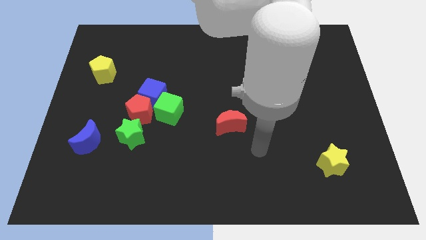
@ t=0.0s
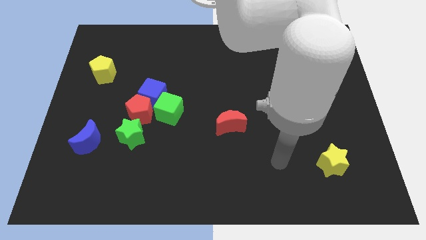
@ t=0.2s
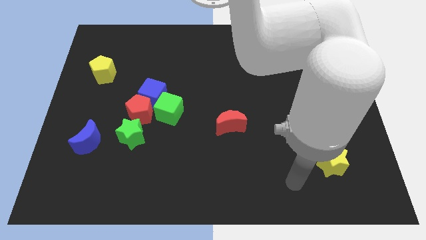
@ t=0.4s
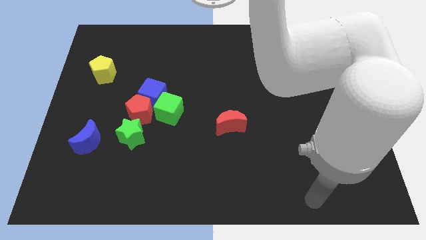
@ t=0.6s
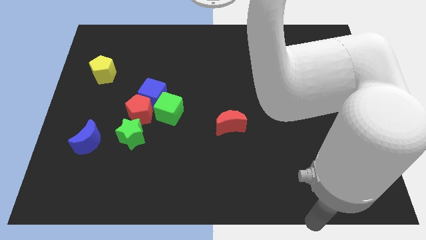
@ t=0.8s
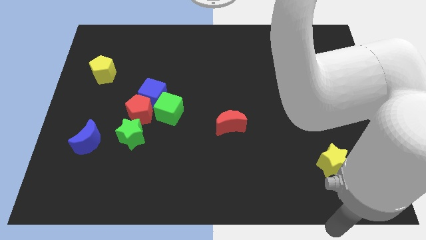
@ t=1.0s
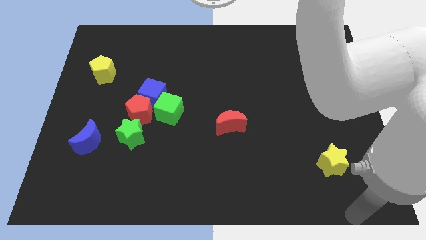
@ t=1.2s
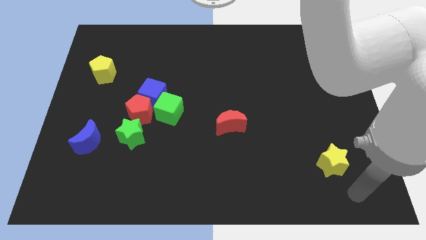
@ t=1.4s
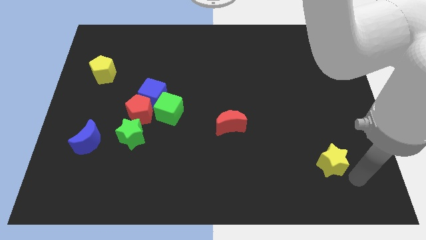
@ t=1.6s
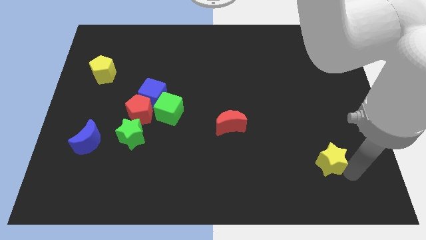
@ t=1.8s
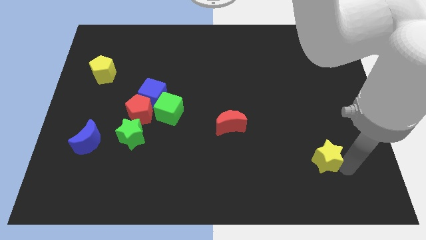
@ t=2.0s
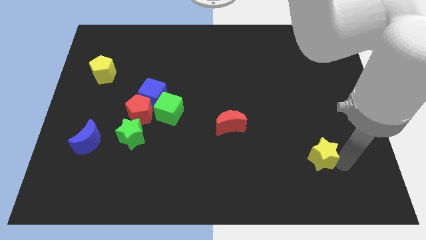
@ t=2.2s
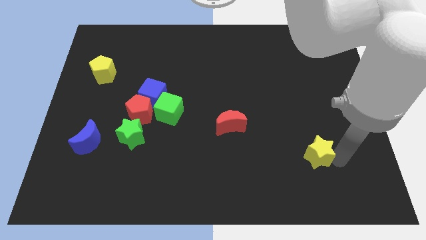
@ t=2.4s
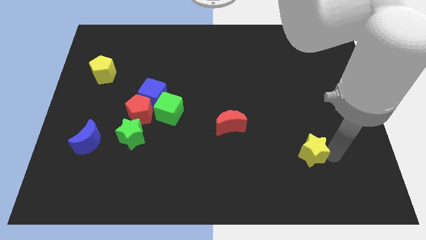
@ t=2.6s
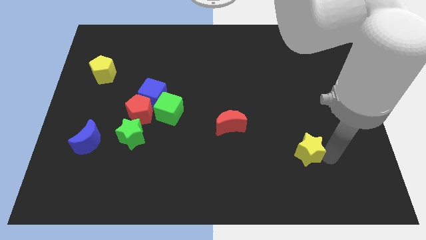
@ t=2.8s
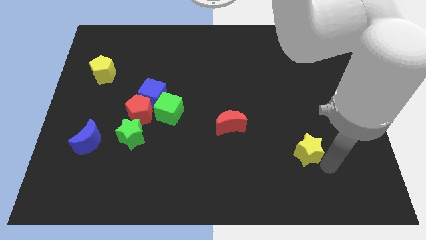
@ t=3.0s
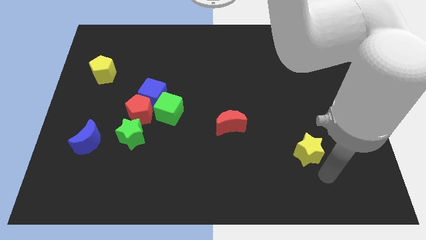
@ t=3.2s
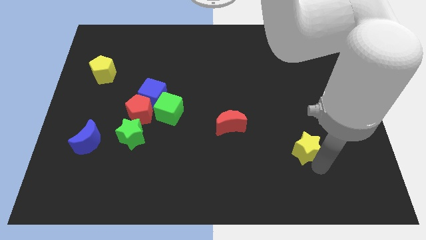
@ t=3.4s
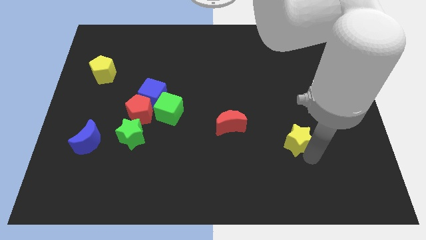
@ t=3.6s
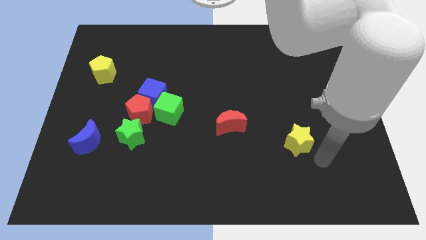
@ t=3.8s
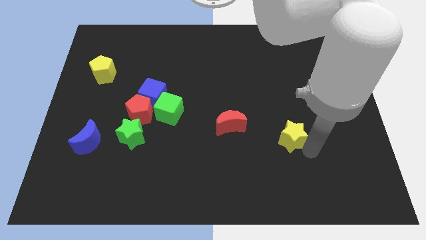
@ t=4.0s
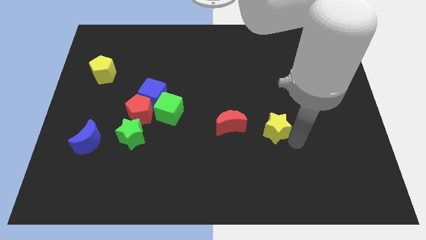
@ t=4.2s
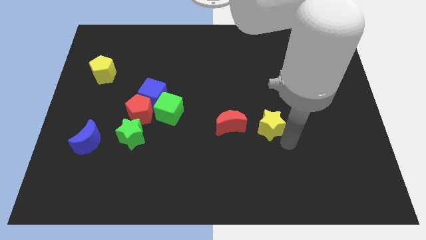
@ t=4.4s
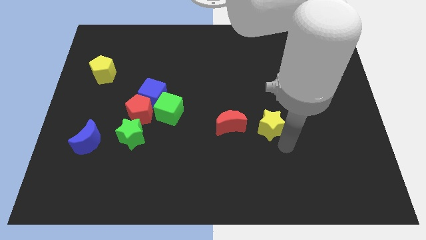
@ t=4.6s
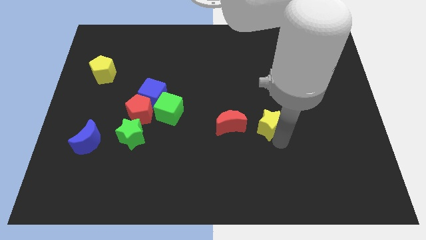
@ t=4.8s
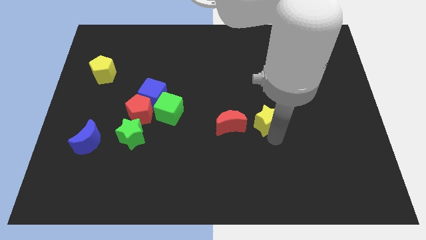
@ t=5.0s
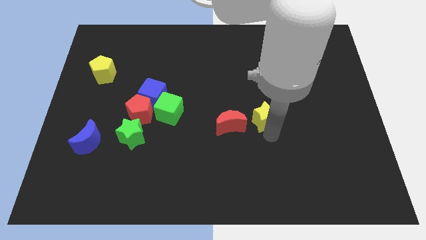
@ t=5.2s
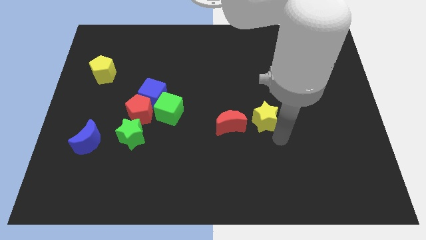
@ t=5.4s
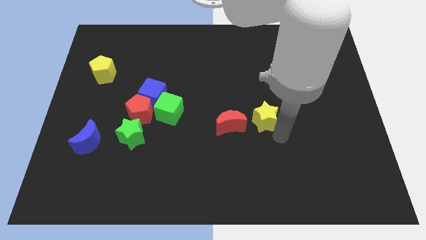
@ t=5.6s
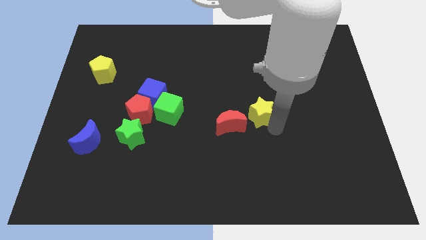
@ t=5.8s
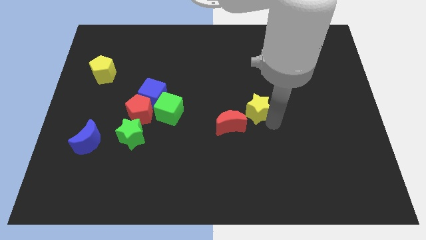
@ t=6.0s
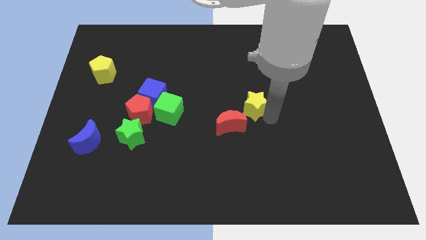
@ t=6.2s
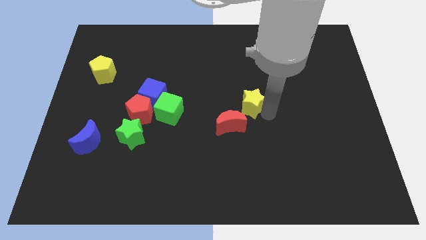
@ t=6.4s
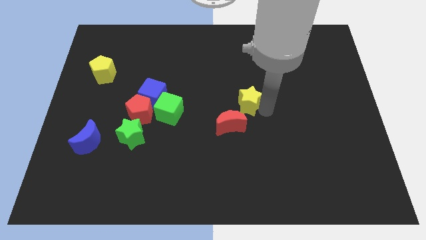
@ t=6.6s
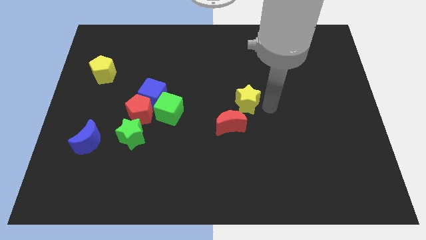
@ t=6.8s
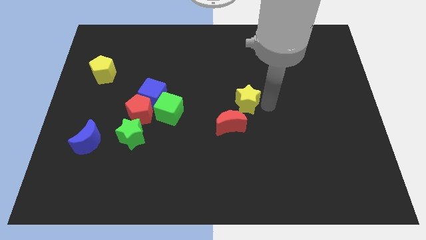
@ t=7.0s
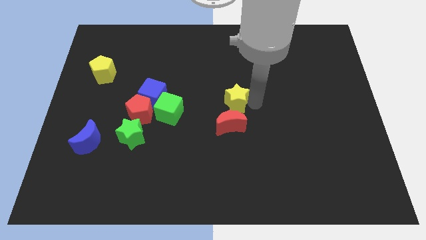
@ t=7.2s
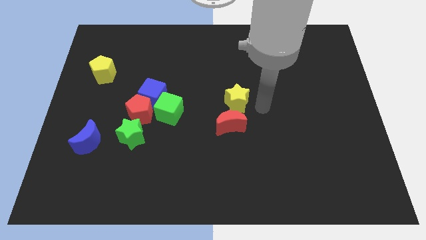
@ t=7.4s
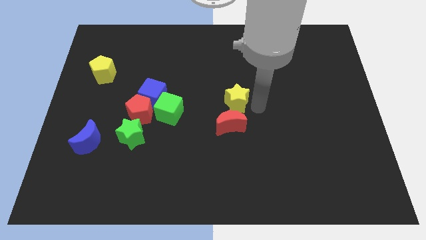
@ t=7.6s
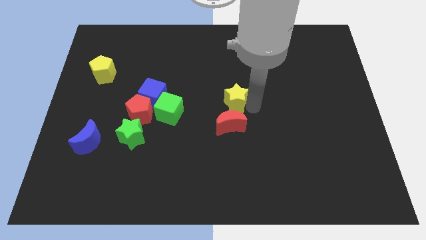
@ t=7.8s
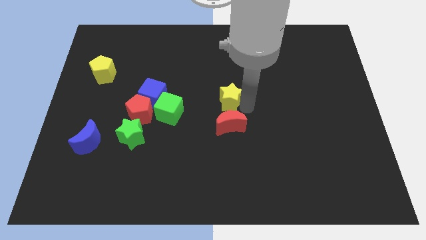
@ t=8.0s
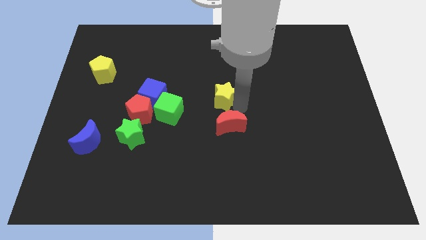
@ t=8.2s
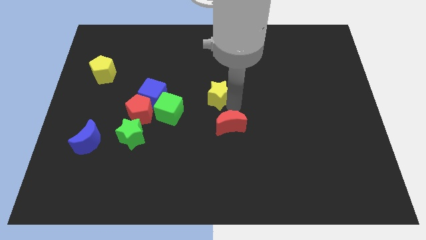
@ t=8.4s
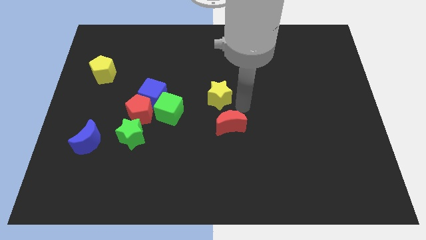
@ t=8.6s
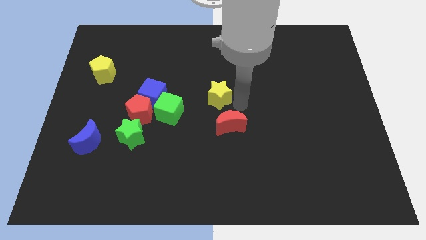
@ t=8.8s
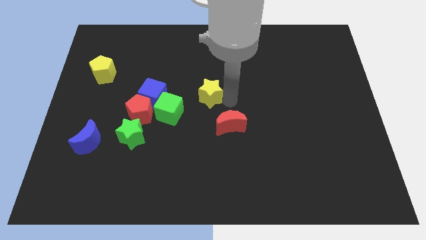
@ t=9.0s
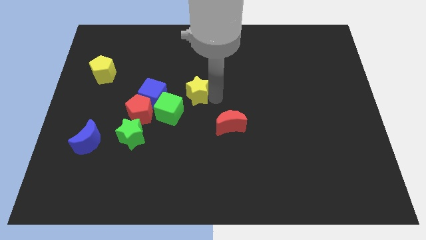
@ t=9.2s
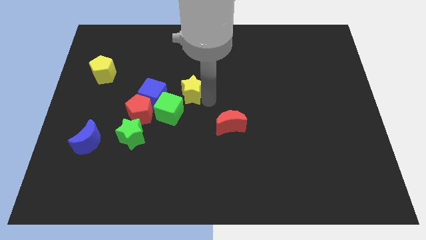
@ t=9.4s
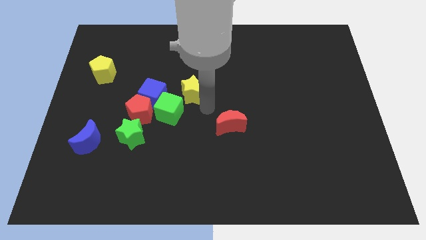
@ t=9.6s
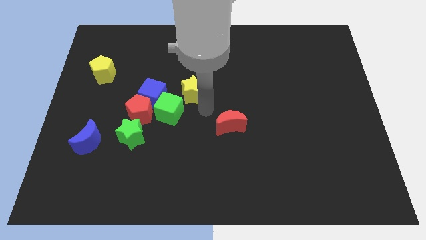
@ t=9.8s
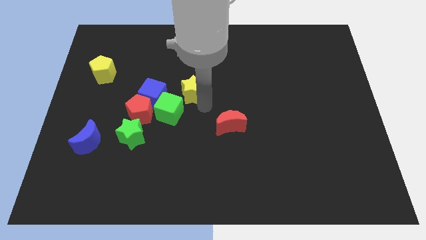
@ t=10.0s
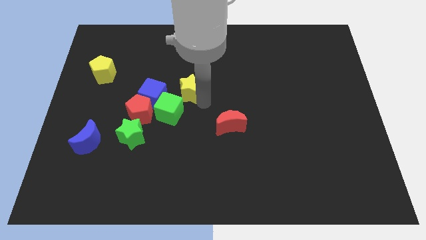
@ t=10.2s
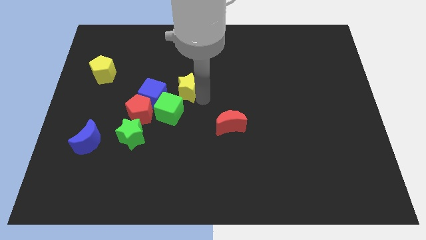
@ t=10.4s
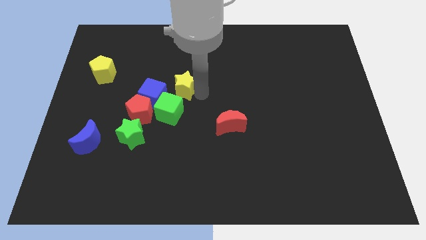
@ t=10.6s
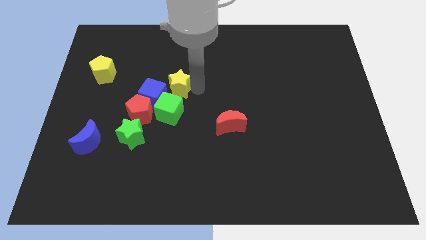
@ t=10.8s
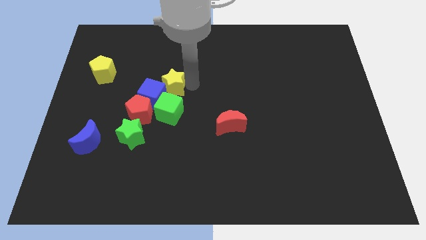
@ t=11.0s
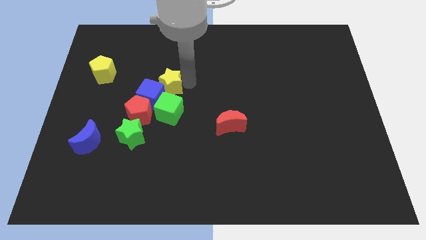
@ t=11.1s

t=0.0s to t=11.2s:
push the yellow star to the top of the blue cube

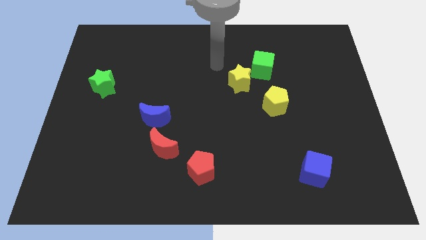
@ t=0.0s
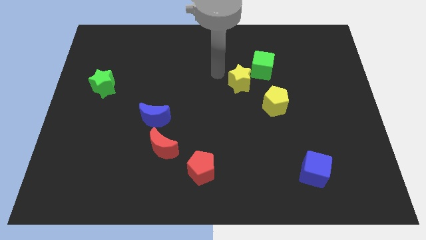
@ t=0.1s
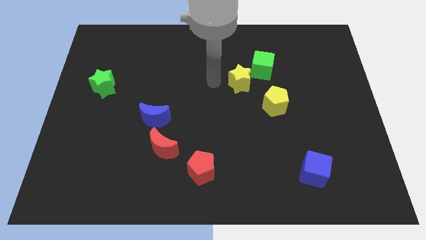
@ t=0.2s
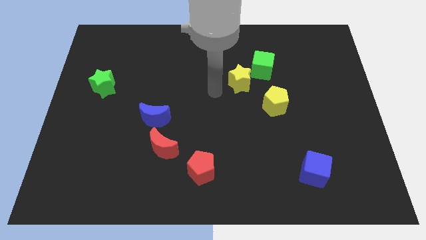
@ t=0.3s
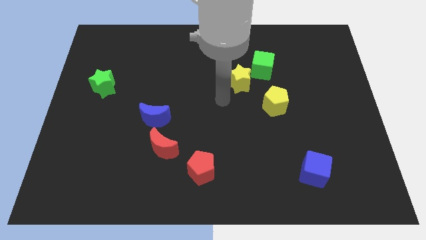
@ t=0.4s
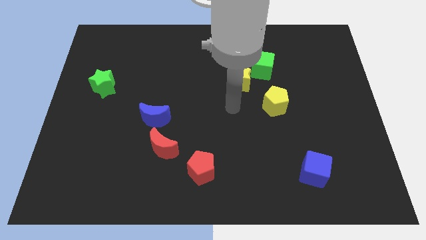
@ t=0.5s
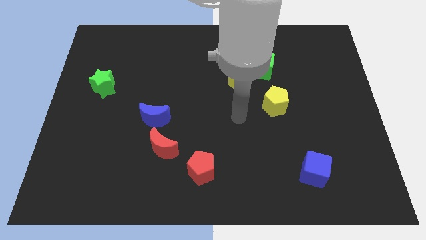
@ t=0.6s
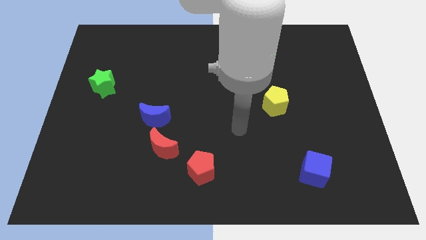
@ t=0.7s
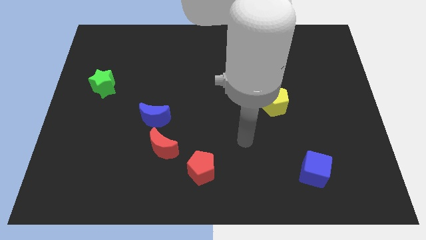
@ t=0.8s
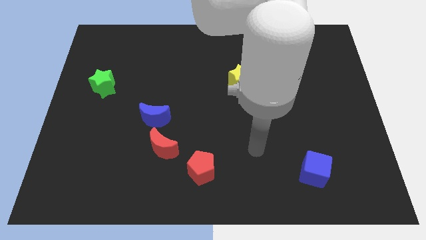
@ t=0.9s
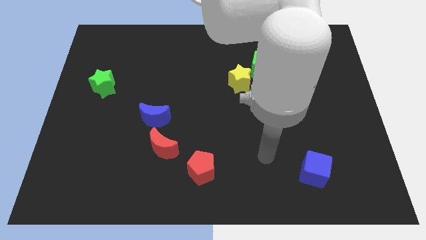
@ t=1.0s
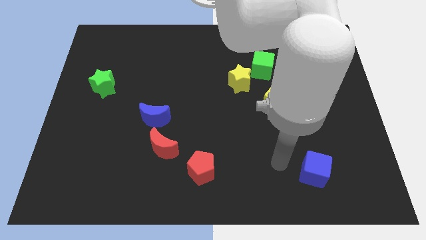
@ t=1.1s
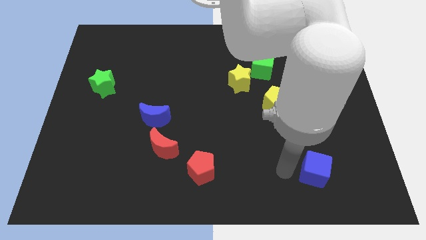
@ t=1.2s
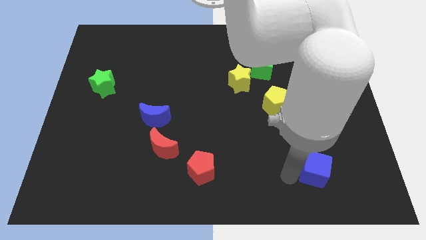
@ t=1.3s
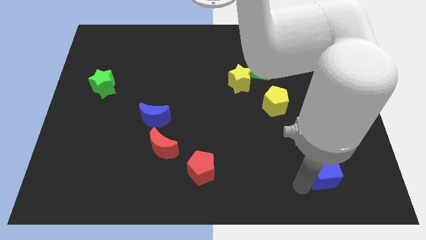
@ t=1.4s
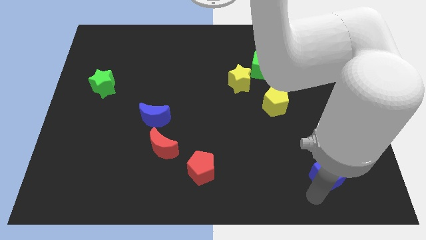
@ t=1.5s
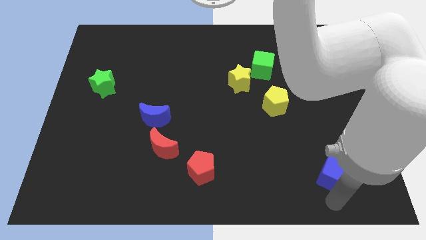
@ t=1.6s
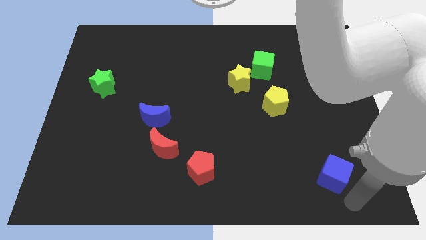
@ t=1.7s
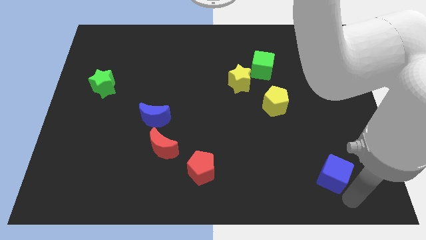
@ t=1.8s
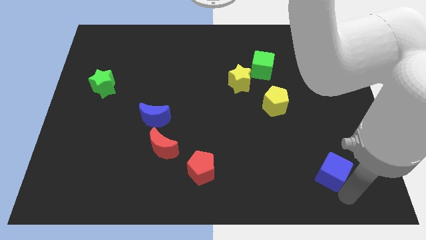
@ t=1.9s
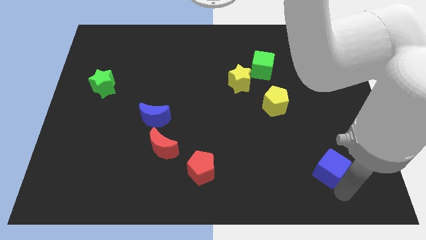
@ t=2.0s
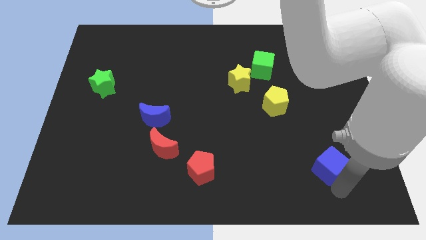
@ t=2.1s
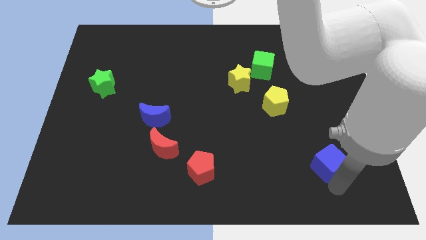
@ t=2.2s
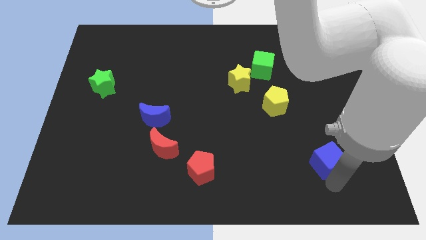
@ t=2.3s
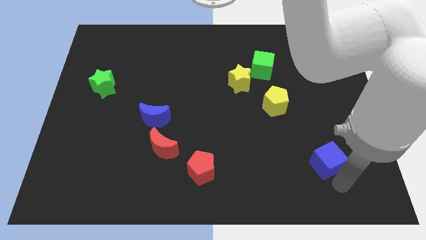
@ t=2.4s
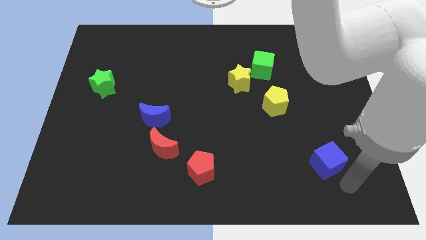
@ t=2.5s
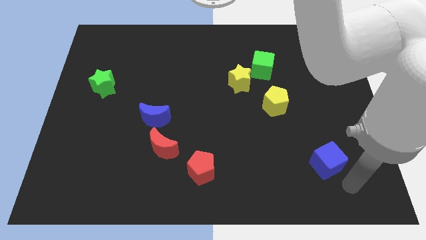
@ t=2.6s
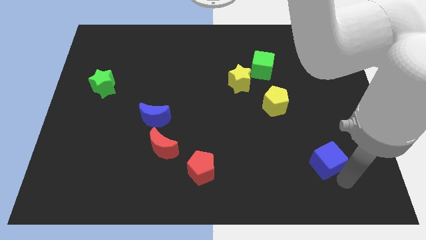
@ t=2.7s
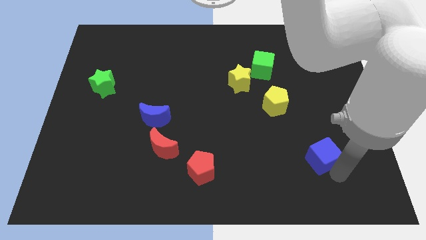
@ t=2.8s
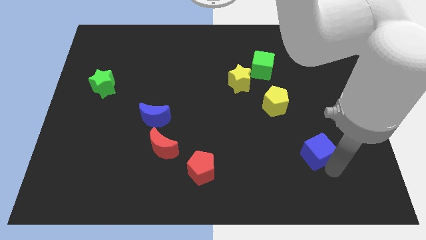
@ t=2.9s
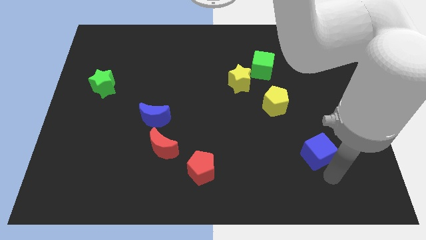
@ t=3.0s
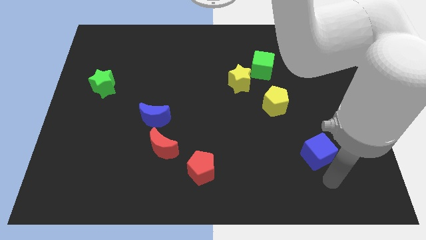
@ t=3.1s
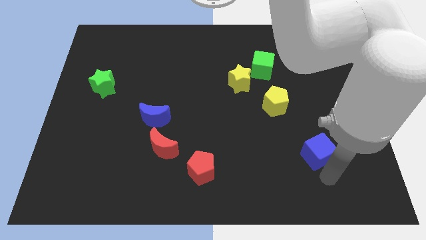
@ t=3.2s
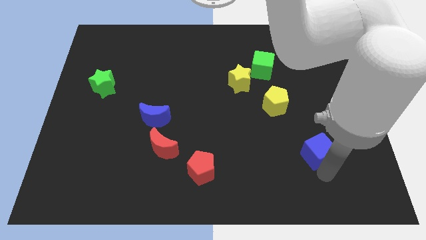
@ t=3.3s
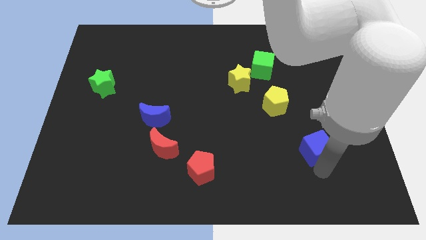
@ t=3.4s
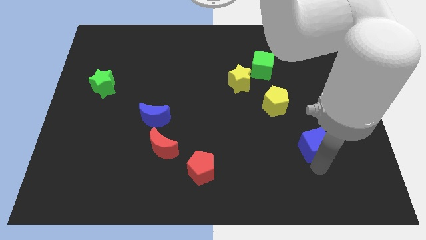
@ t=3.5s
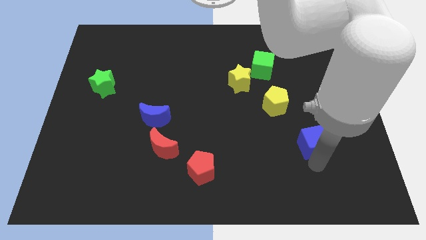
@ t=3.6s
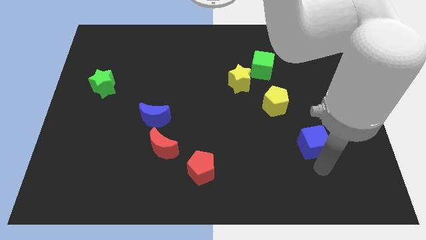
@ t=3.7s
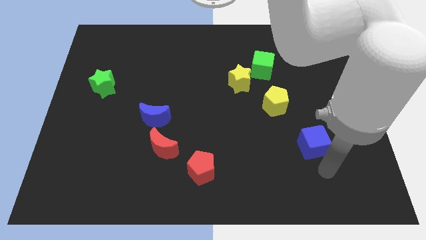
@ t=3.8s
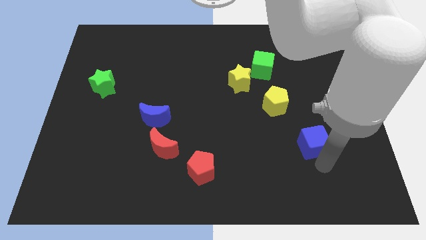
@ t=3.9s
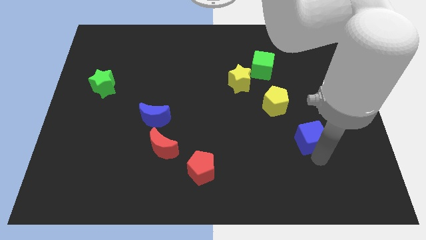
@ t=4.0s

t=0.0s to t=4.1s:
put the blue cube to the bottom right side of the yellow pentagon
